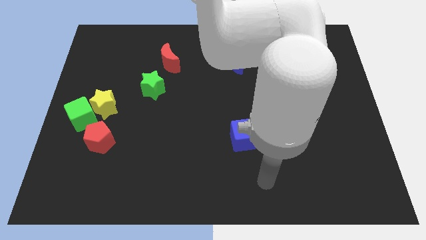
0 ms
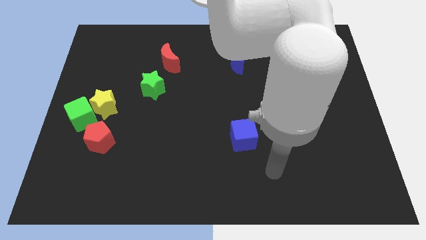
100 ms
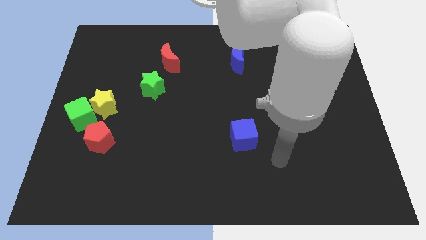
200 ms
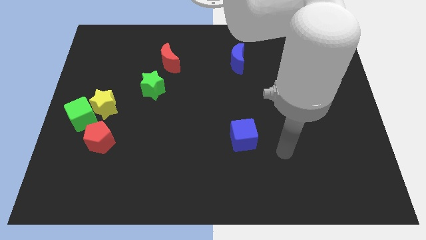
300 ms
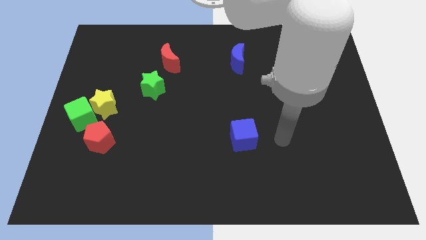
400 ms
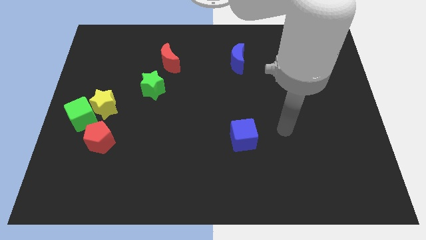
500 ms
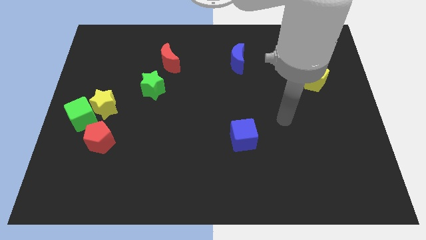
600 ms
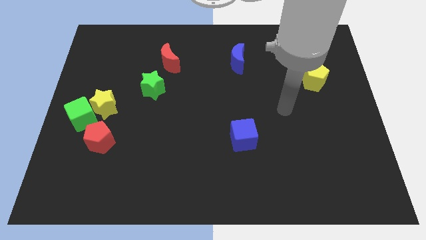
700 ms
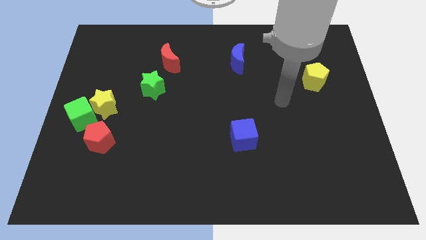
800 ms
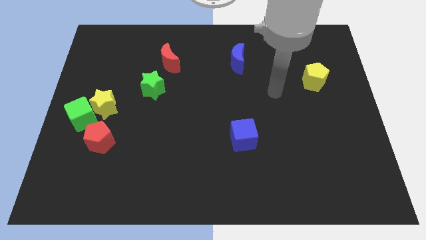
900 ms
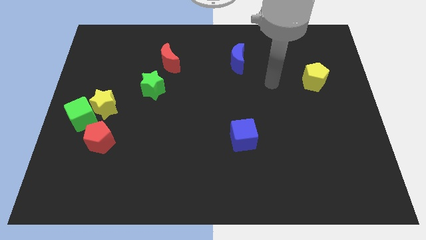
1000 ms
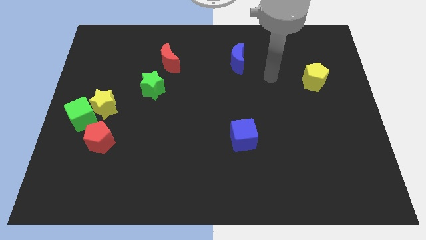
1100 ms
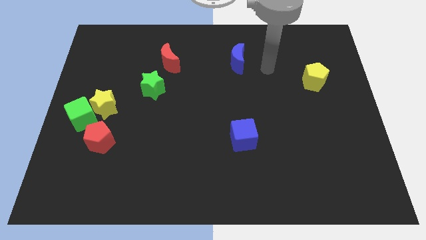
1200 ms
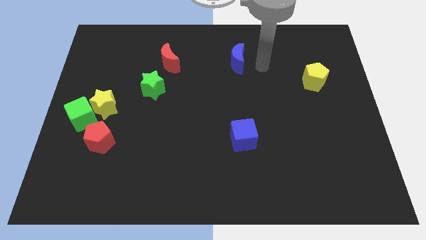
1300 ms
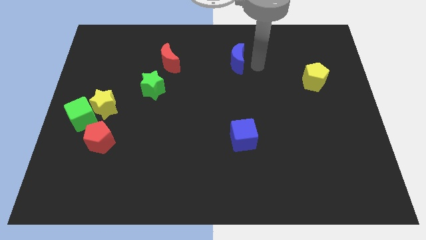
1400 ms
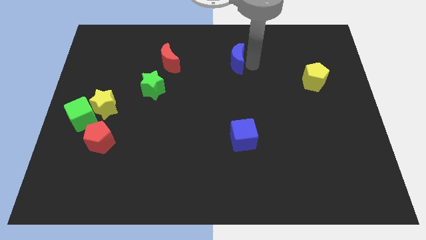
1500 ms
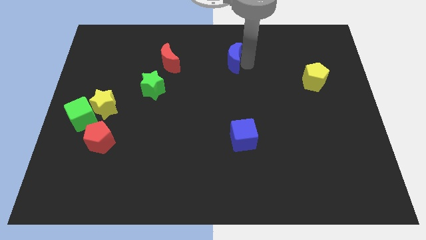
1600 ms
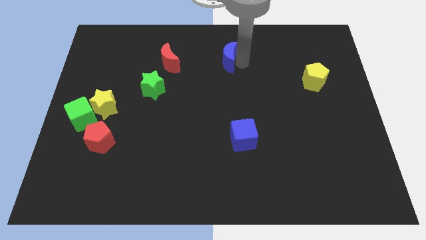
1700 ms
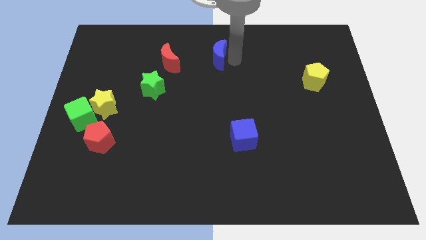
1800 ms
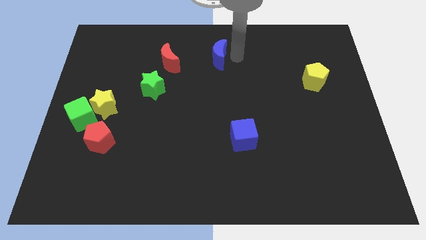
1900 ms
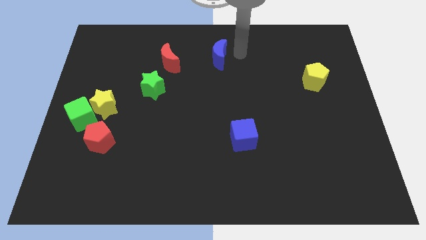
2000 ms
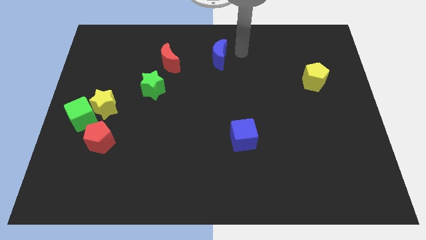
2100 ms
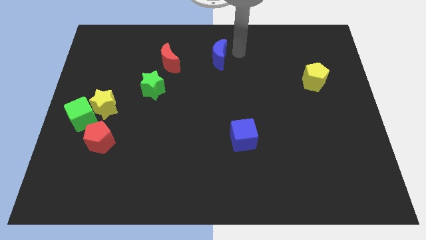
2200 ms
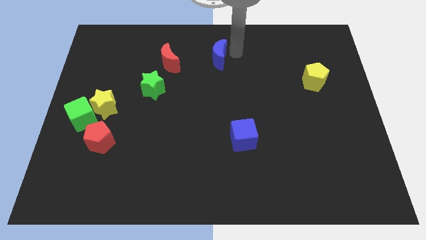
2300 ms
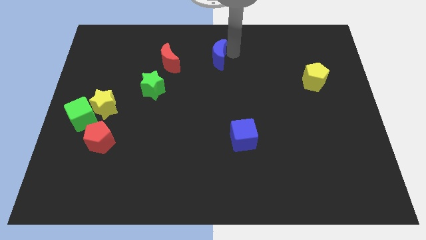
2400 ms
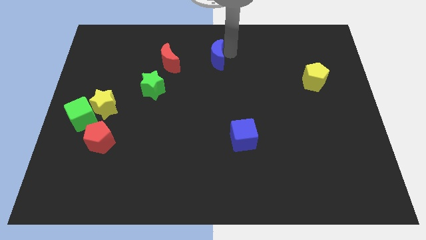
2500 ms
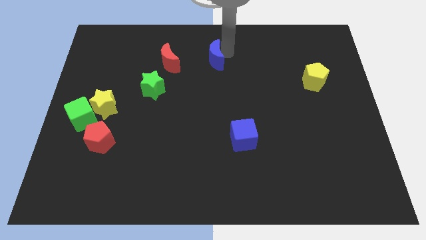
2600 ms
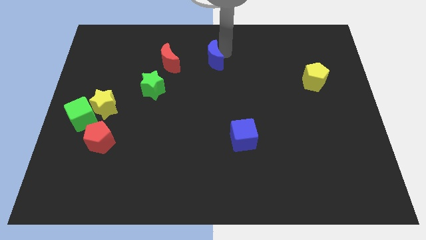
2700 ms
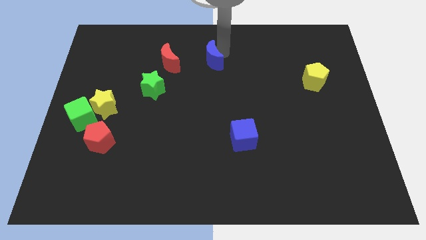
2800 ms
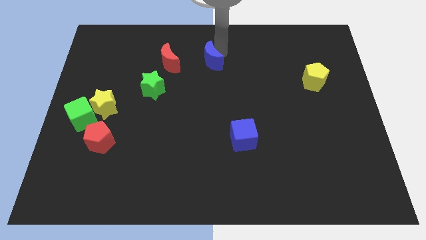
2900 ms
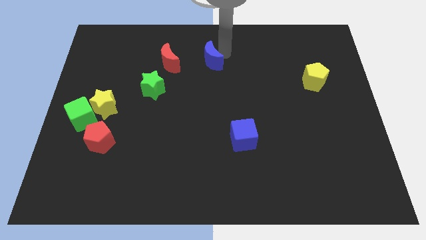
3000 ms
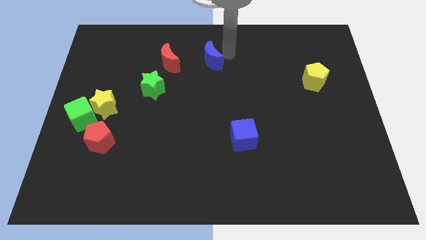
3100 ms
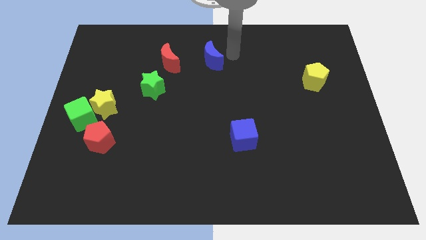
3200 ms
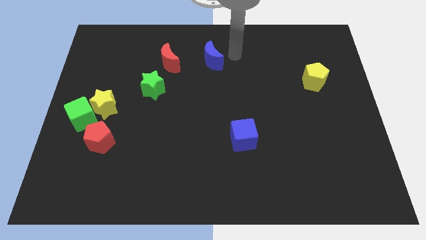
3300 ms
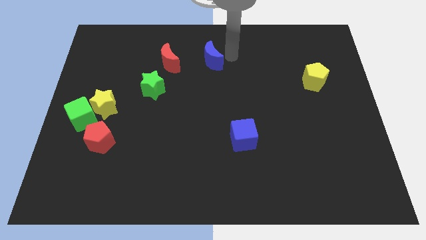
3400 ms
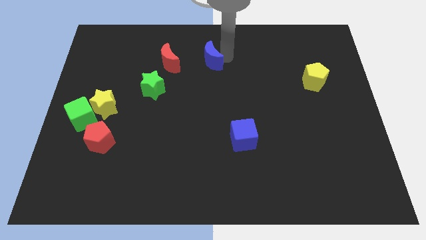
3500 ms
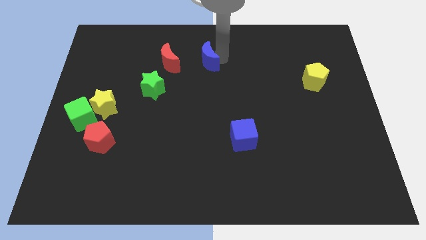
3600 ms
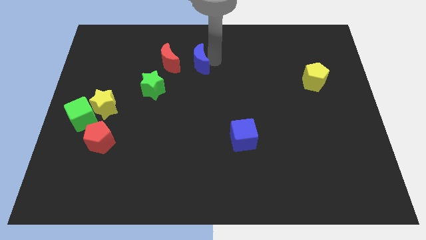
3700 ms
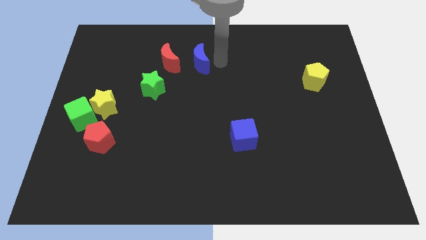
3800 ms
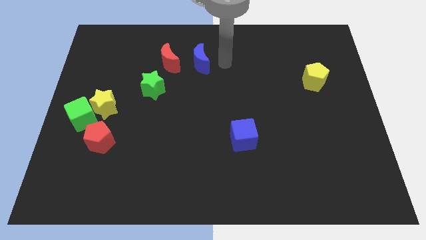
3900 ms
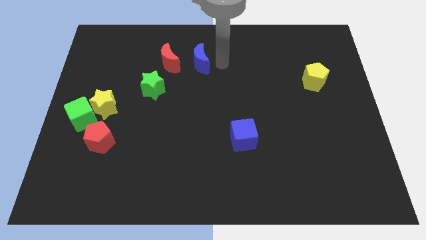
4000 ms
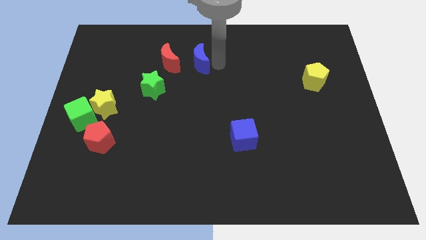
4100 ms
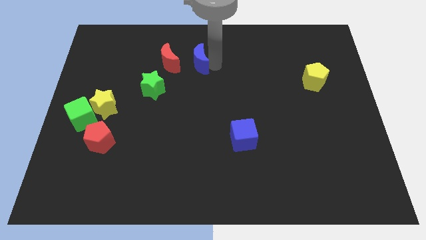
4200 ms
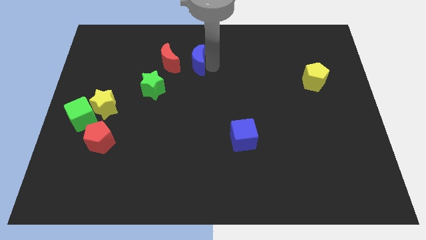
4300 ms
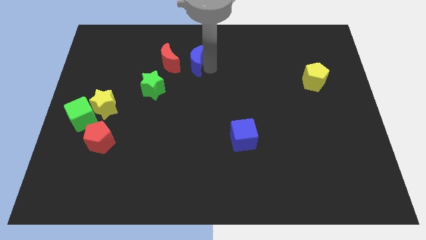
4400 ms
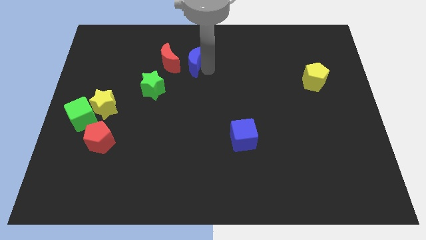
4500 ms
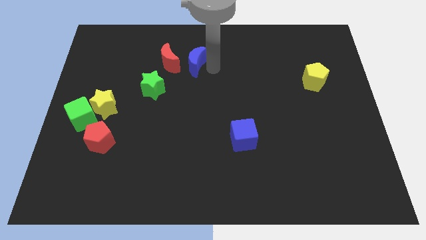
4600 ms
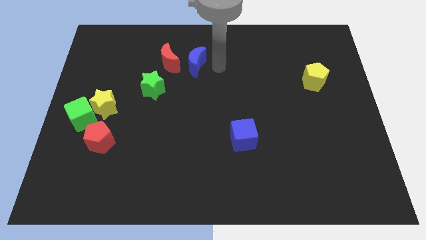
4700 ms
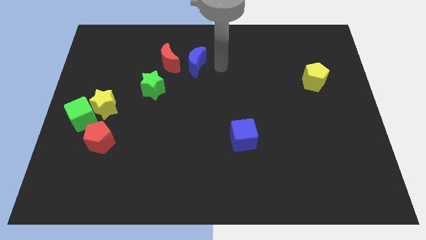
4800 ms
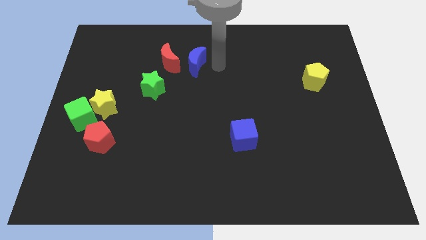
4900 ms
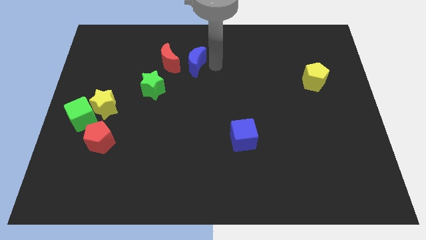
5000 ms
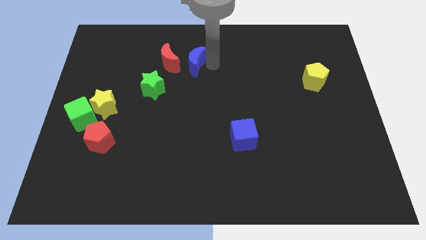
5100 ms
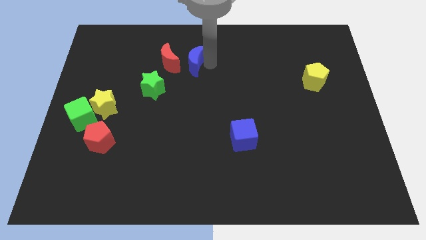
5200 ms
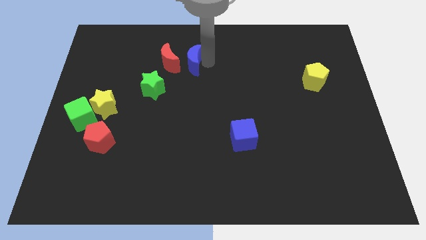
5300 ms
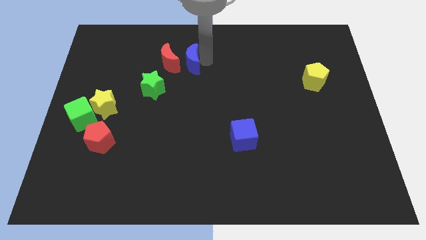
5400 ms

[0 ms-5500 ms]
put the blue moon close to the red moon

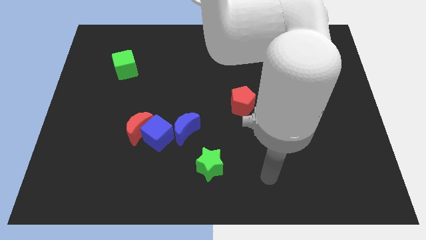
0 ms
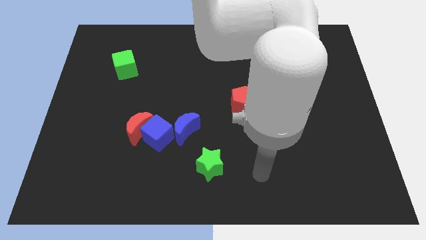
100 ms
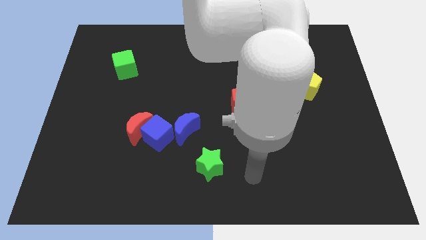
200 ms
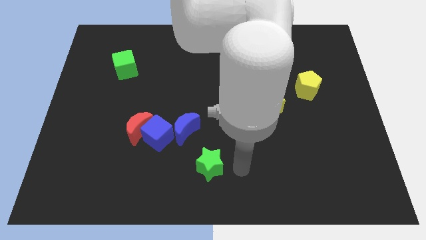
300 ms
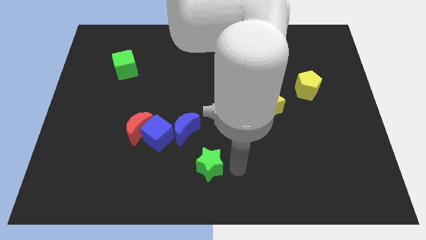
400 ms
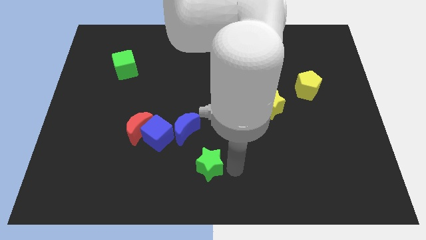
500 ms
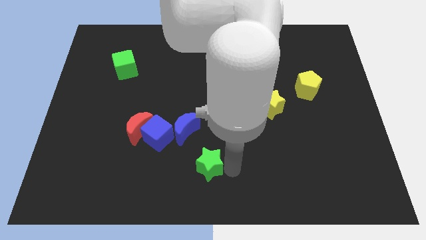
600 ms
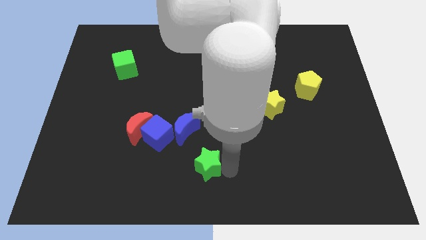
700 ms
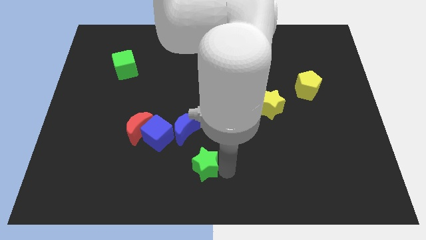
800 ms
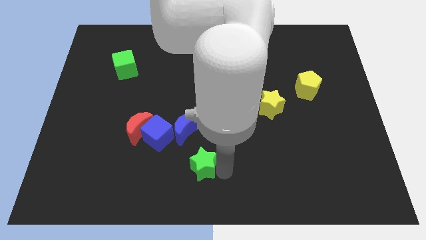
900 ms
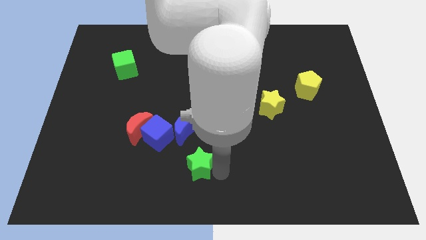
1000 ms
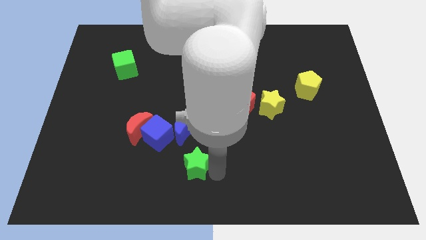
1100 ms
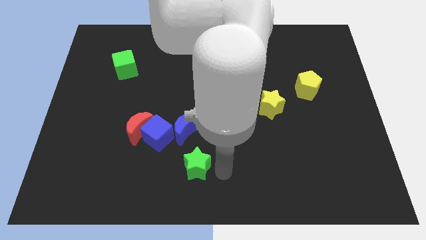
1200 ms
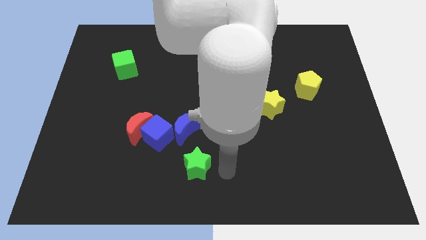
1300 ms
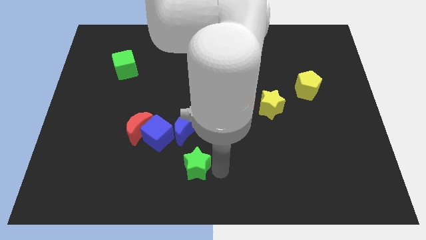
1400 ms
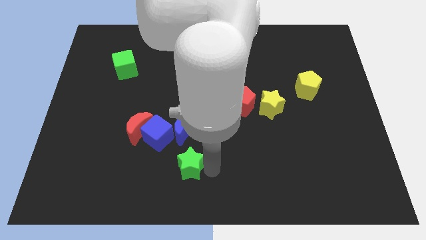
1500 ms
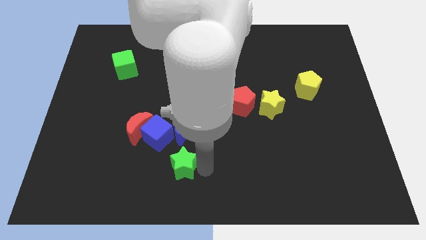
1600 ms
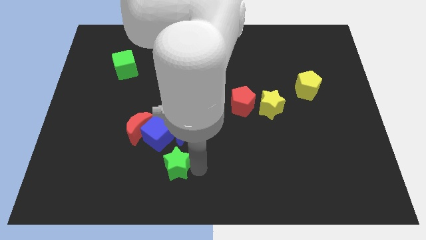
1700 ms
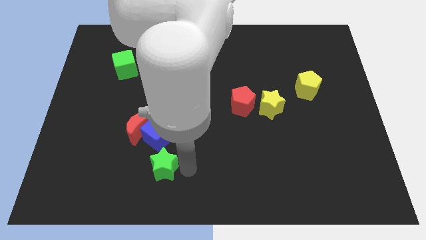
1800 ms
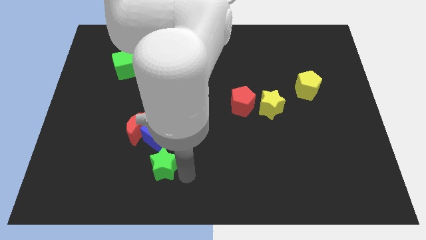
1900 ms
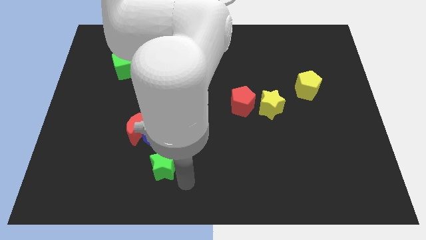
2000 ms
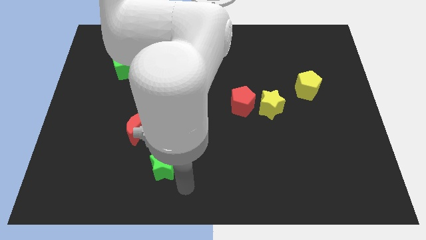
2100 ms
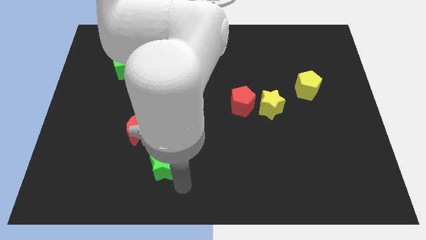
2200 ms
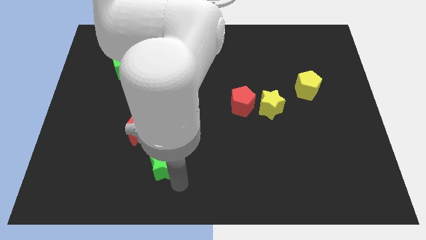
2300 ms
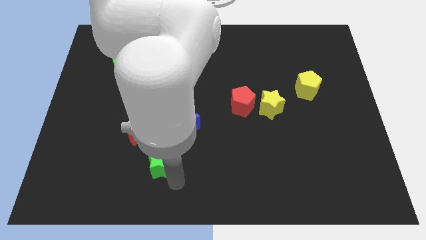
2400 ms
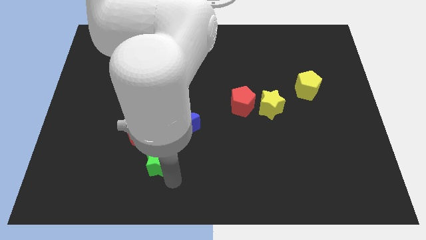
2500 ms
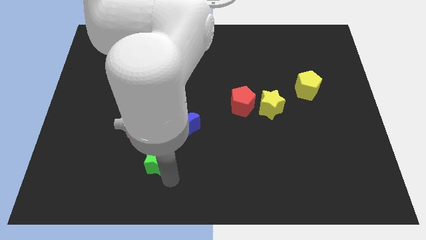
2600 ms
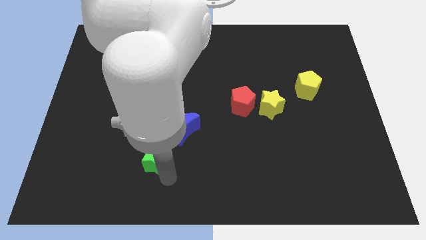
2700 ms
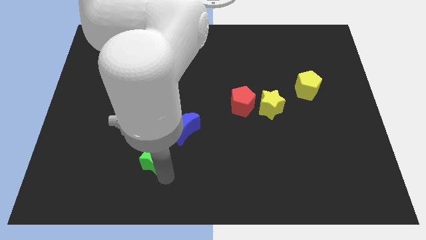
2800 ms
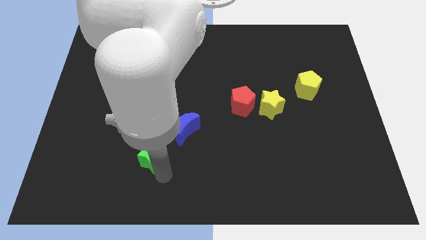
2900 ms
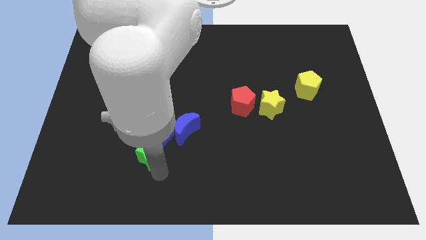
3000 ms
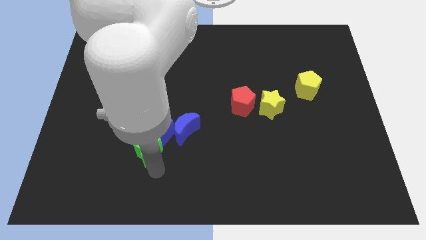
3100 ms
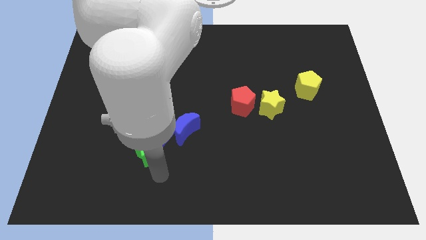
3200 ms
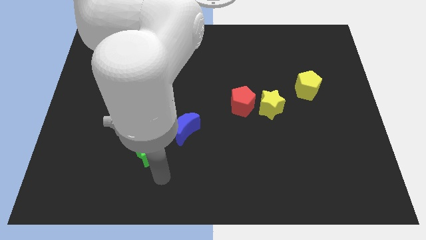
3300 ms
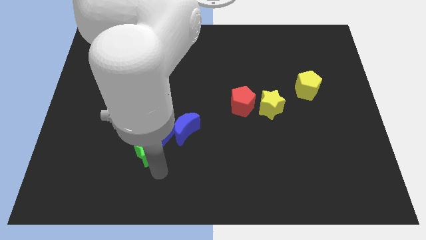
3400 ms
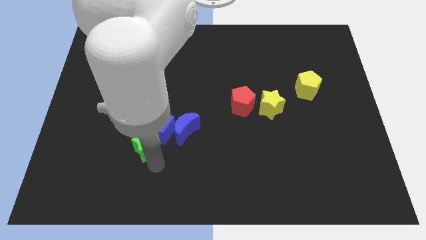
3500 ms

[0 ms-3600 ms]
push the green star close to the red moon
